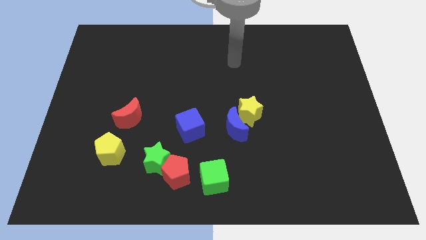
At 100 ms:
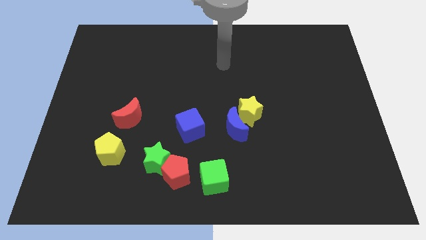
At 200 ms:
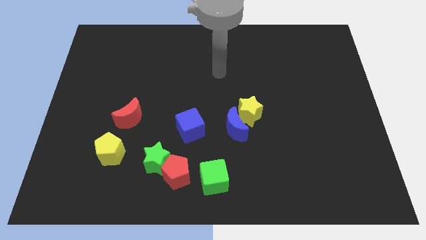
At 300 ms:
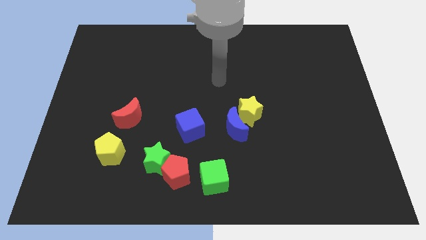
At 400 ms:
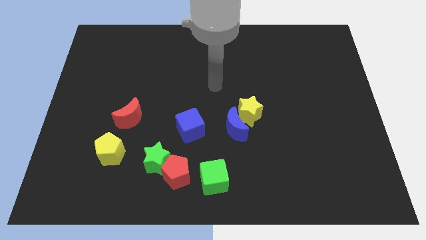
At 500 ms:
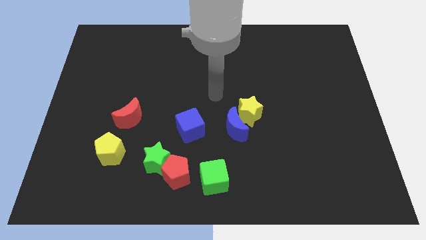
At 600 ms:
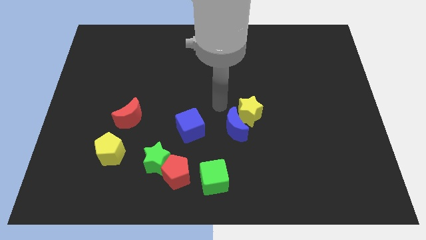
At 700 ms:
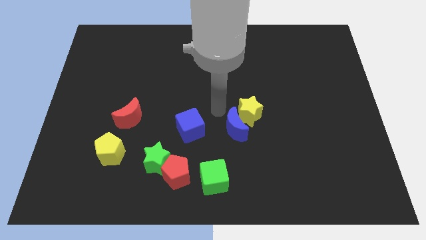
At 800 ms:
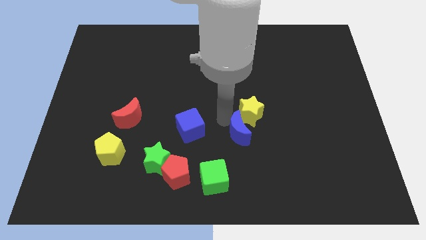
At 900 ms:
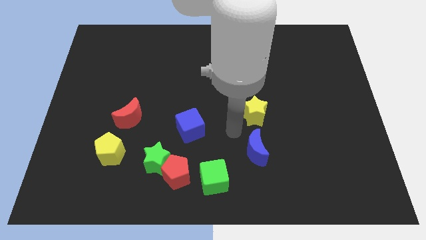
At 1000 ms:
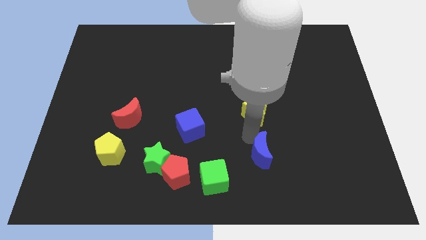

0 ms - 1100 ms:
move the yellow star away from the blue moon

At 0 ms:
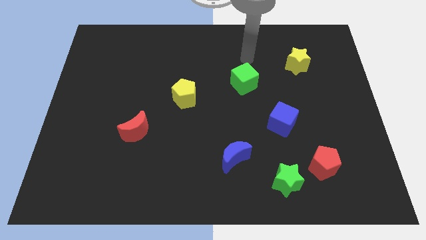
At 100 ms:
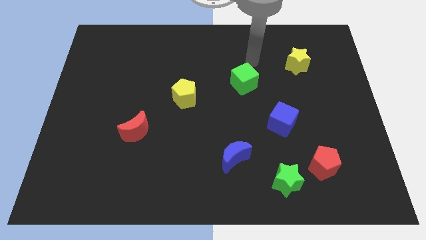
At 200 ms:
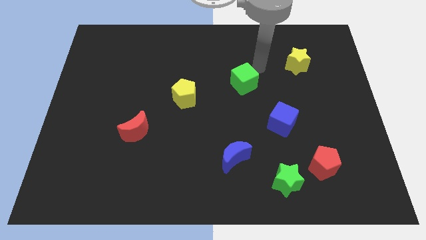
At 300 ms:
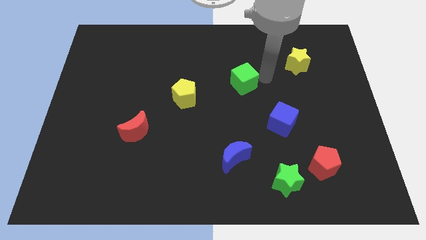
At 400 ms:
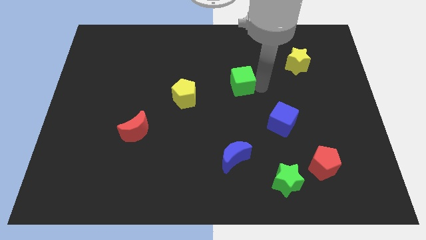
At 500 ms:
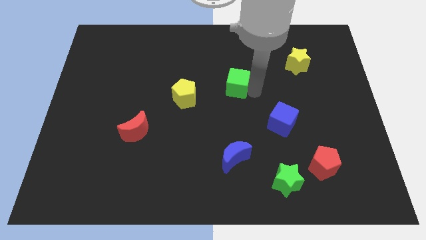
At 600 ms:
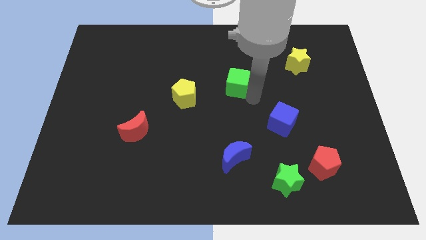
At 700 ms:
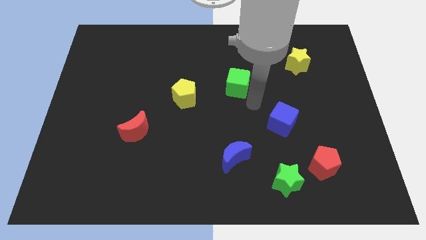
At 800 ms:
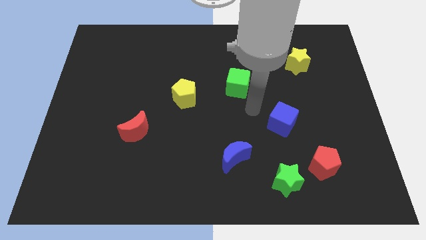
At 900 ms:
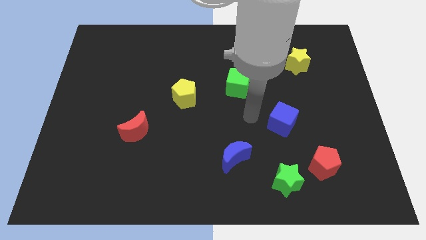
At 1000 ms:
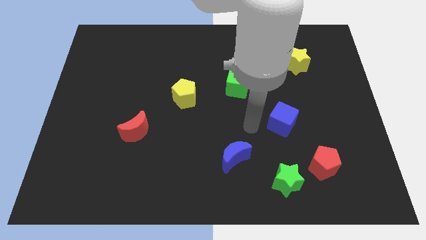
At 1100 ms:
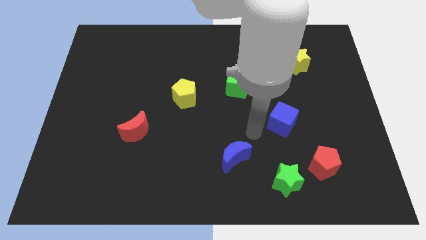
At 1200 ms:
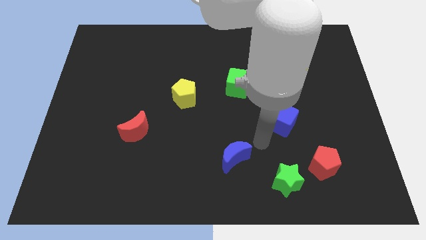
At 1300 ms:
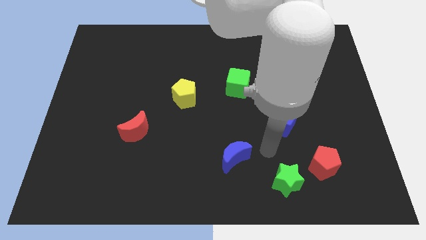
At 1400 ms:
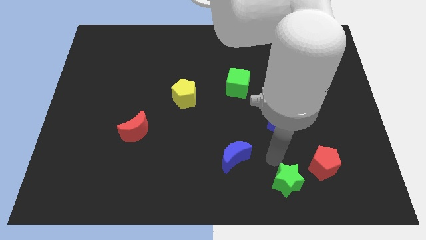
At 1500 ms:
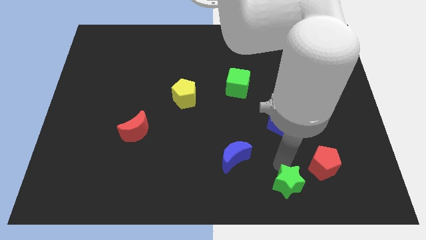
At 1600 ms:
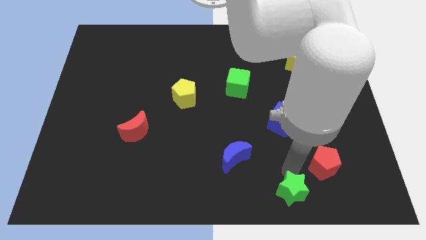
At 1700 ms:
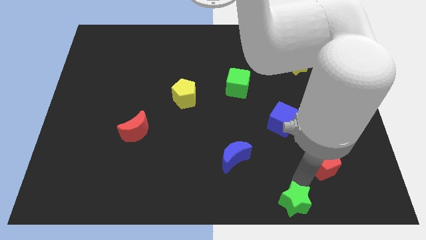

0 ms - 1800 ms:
separate the red pentagon from the green star

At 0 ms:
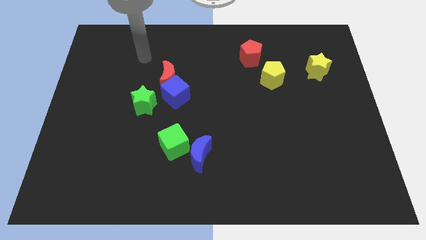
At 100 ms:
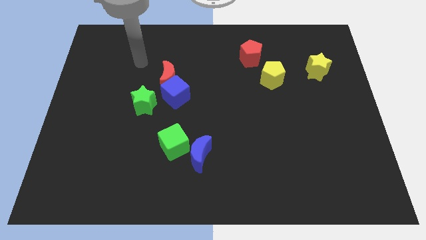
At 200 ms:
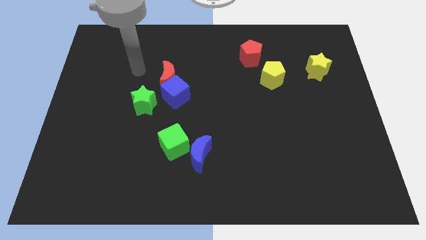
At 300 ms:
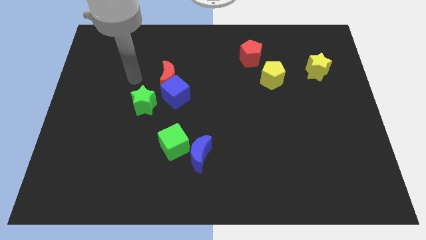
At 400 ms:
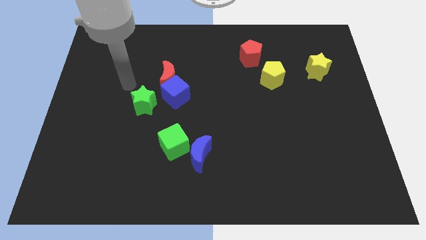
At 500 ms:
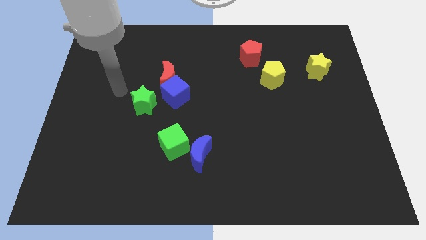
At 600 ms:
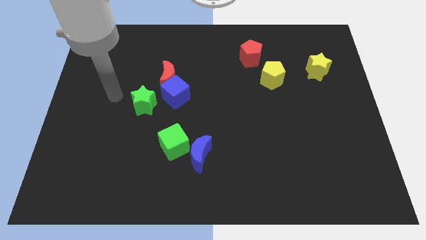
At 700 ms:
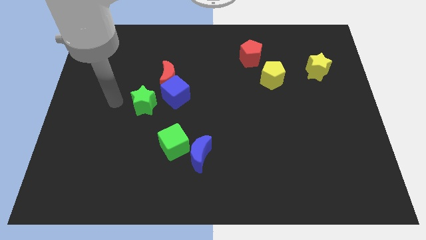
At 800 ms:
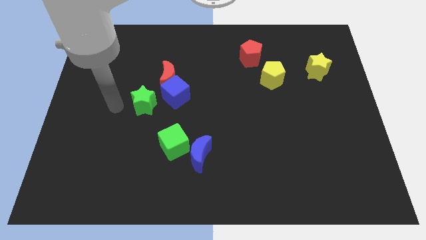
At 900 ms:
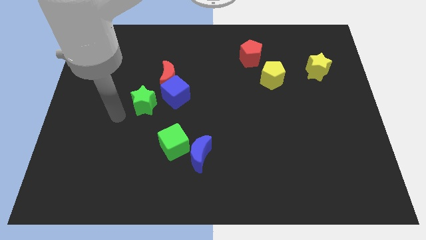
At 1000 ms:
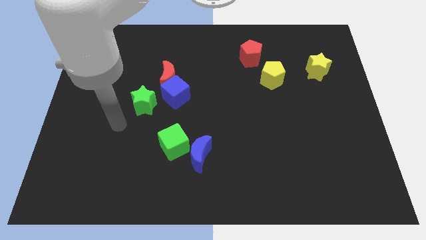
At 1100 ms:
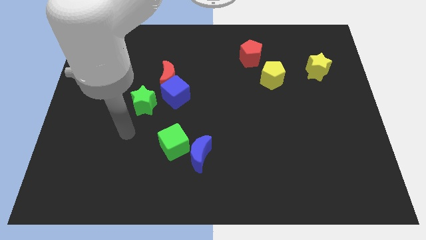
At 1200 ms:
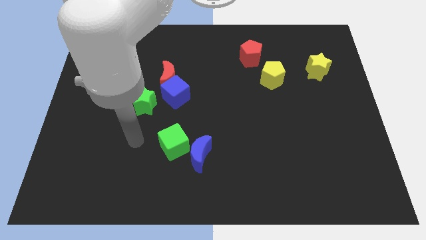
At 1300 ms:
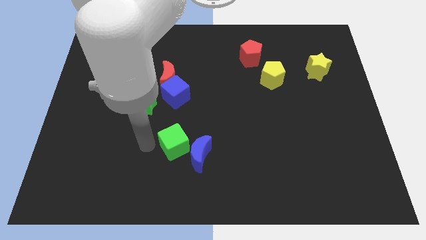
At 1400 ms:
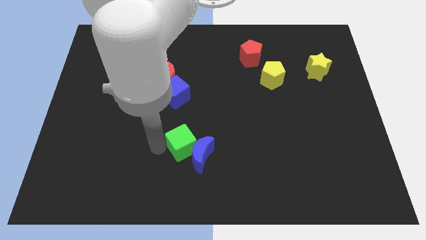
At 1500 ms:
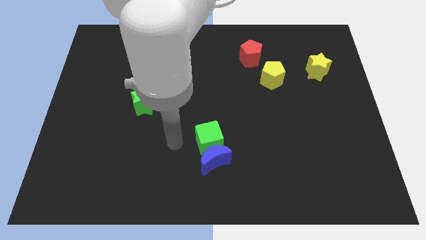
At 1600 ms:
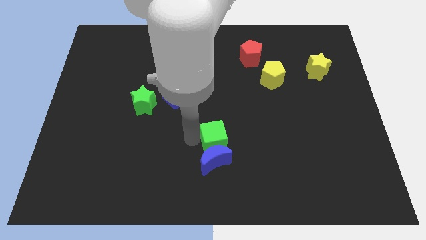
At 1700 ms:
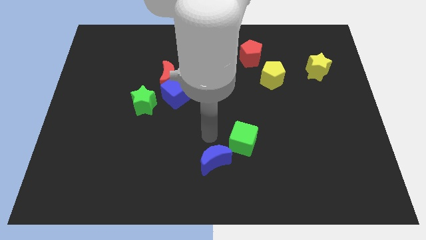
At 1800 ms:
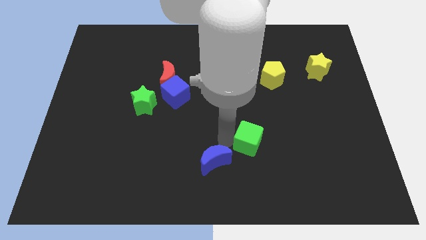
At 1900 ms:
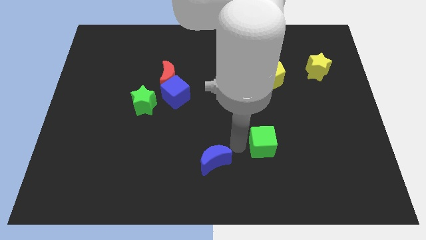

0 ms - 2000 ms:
separate the blue moon from the green cube

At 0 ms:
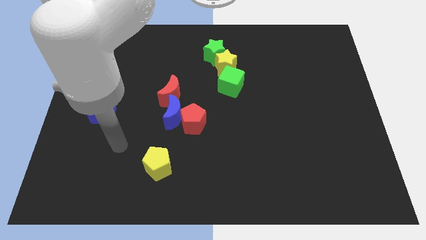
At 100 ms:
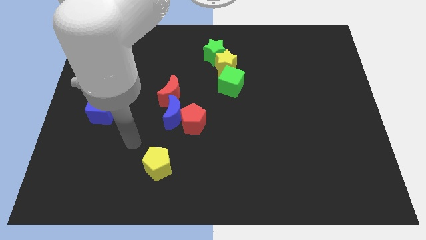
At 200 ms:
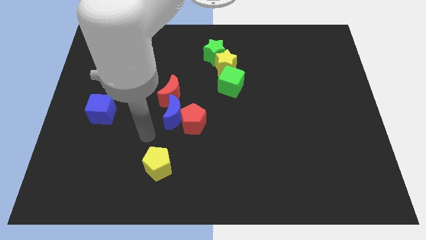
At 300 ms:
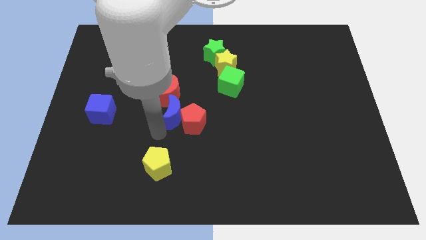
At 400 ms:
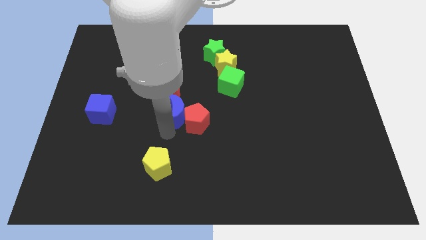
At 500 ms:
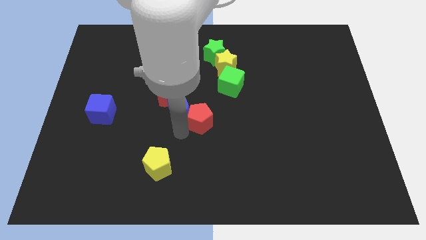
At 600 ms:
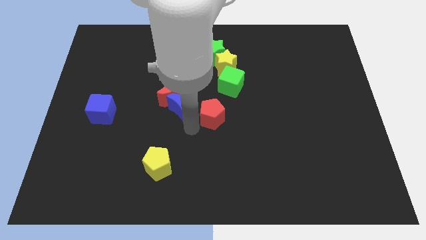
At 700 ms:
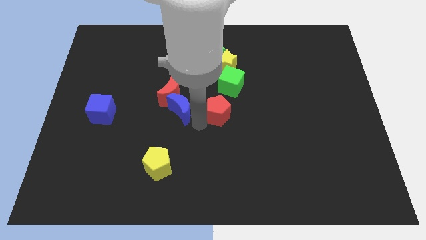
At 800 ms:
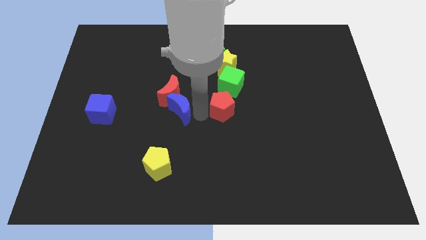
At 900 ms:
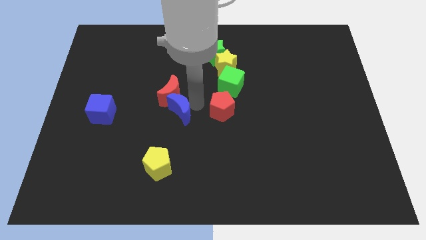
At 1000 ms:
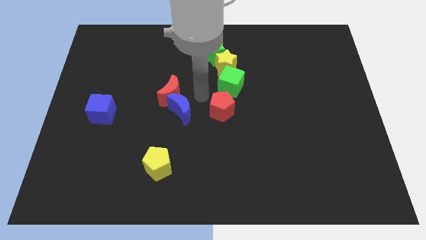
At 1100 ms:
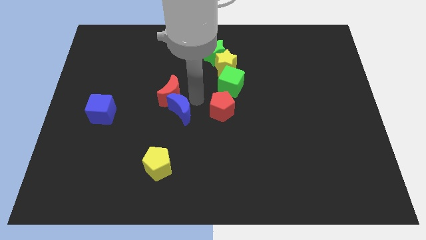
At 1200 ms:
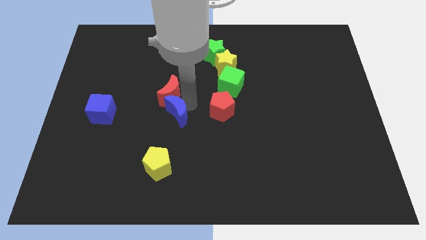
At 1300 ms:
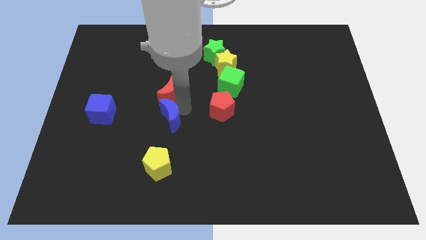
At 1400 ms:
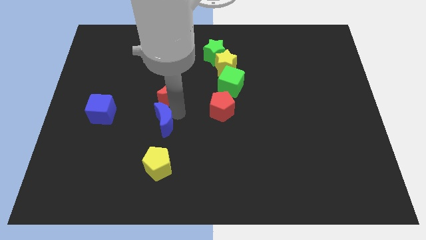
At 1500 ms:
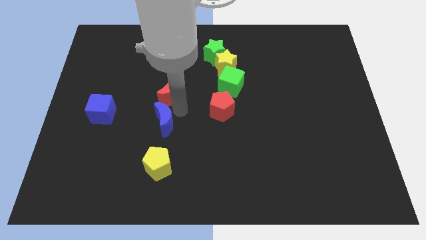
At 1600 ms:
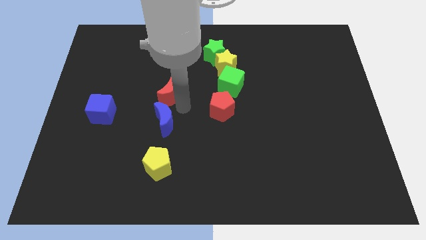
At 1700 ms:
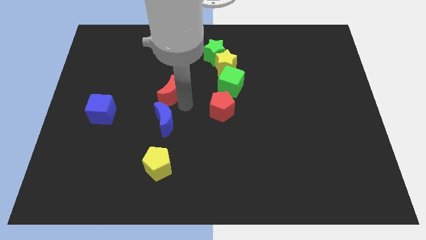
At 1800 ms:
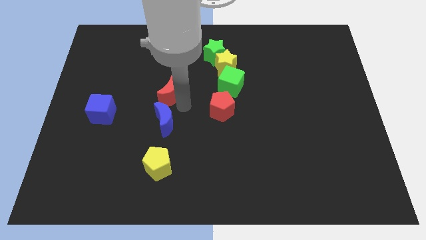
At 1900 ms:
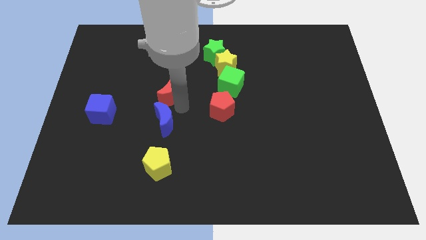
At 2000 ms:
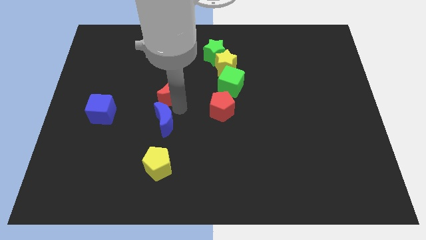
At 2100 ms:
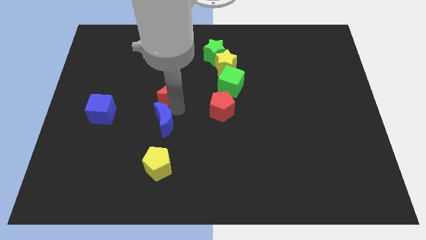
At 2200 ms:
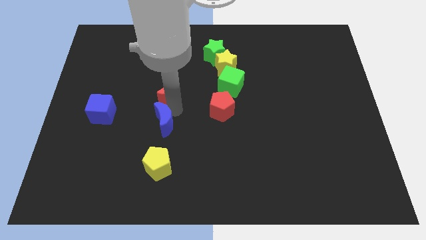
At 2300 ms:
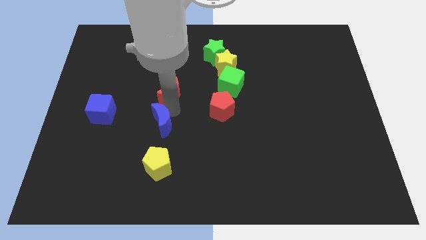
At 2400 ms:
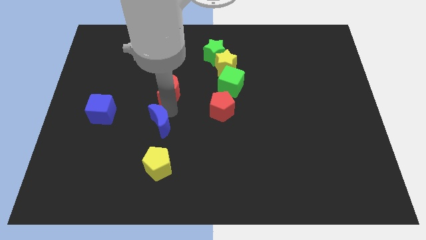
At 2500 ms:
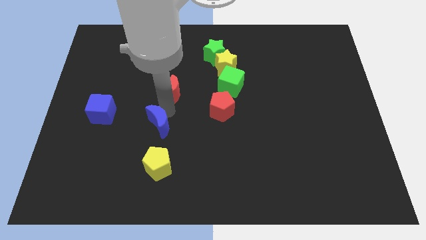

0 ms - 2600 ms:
pull the blue moon apart from the red pentagon and red moon

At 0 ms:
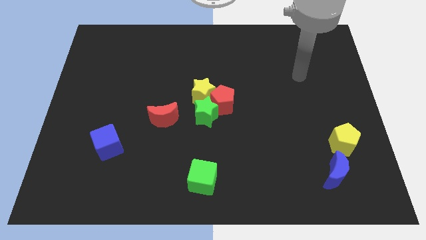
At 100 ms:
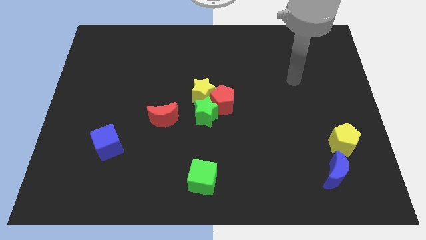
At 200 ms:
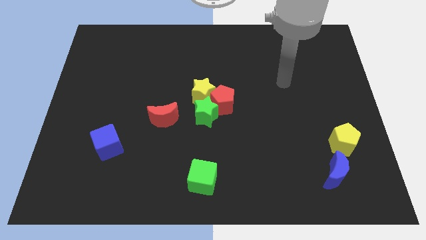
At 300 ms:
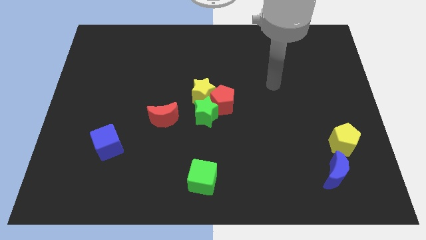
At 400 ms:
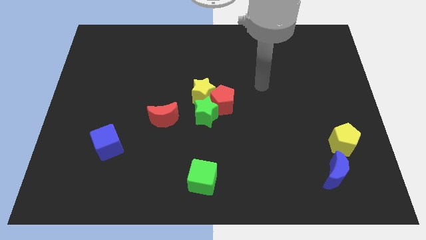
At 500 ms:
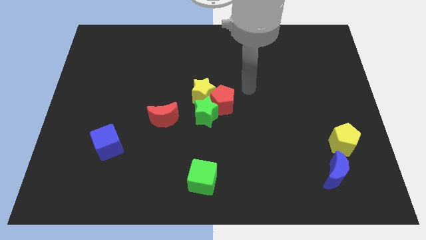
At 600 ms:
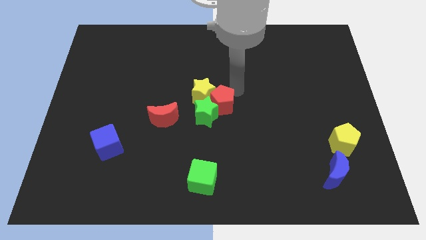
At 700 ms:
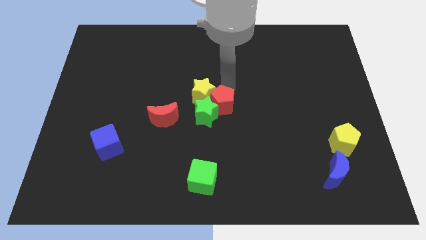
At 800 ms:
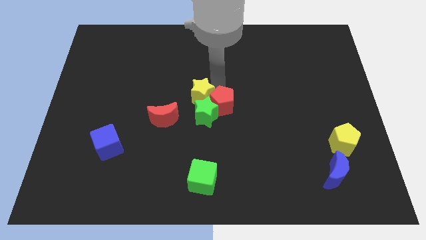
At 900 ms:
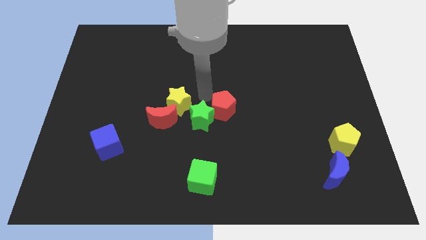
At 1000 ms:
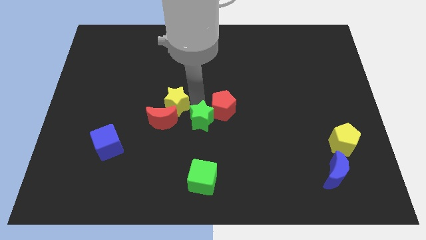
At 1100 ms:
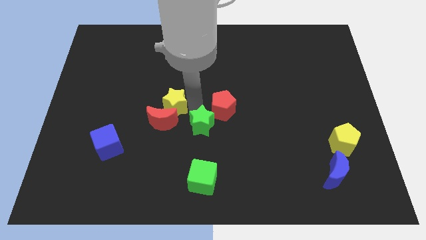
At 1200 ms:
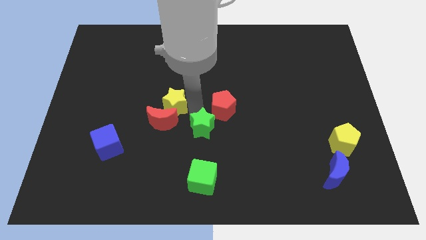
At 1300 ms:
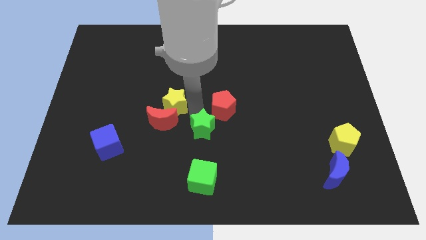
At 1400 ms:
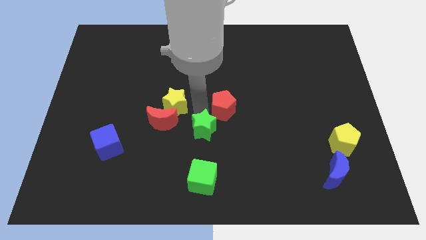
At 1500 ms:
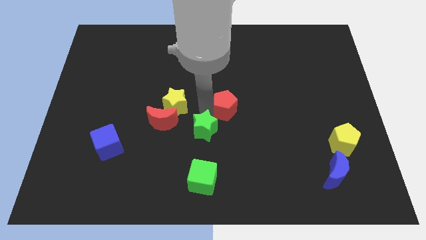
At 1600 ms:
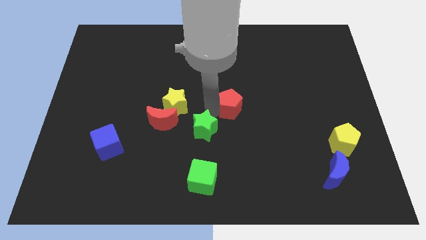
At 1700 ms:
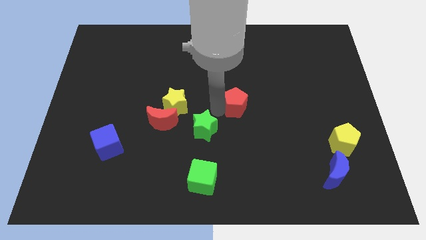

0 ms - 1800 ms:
move the red pentagon away from the green star and yellow star
